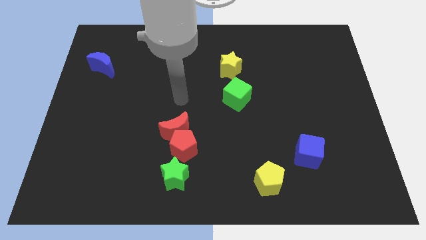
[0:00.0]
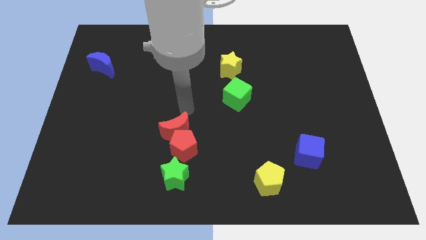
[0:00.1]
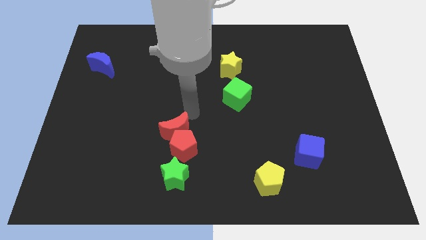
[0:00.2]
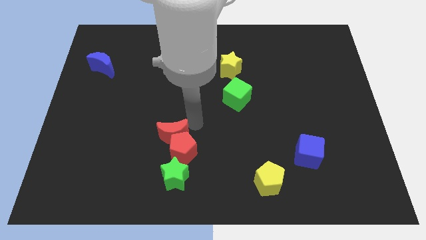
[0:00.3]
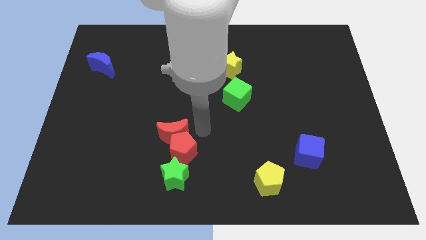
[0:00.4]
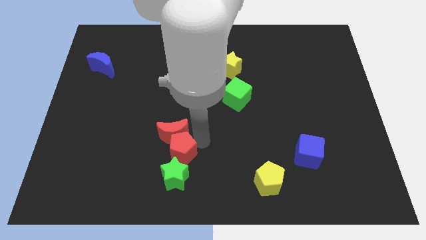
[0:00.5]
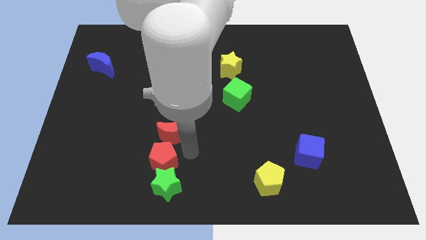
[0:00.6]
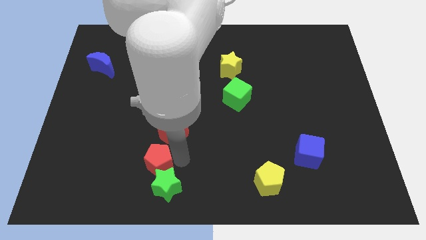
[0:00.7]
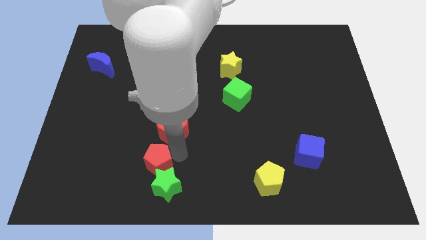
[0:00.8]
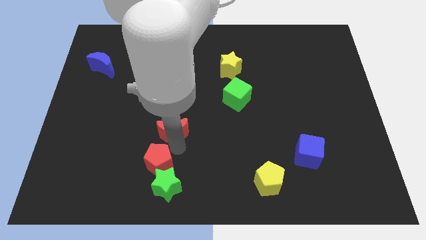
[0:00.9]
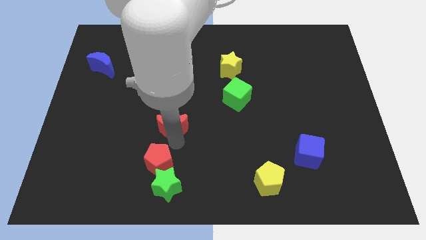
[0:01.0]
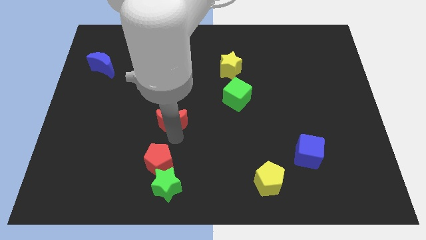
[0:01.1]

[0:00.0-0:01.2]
move the red moon away from the red pentagon

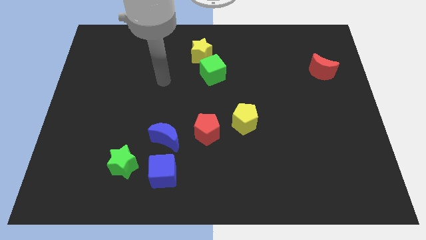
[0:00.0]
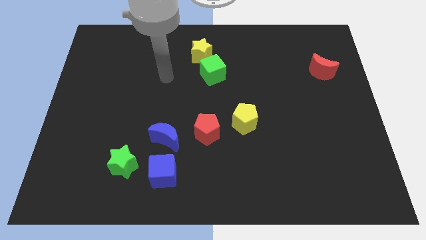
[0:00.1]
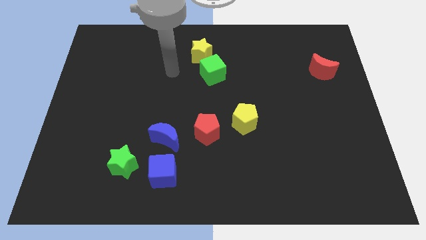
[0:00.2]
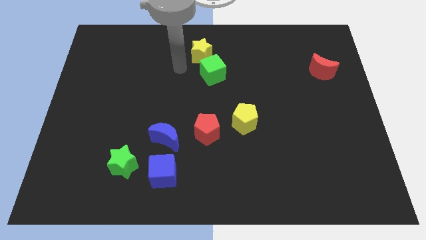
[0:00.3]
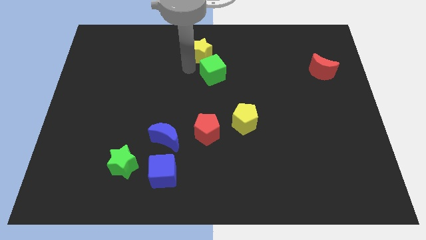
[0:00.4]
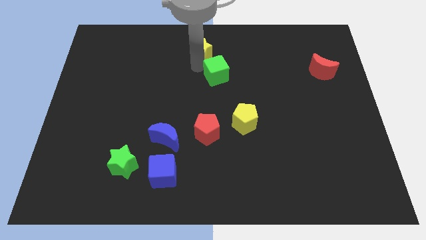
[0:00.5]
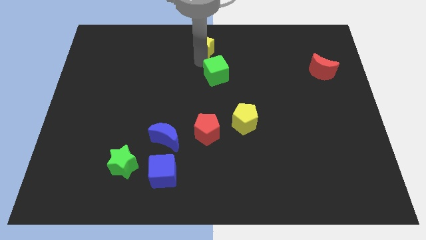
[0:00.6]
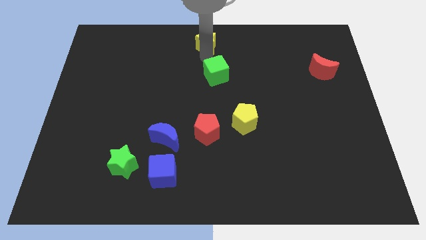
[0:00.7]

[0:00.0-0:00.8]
pull the green cube apart from the yellow star

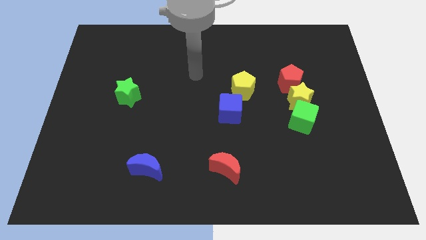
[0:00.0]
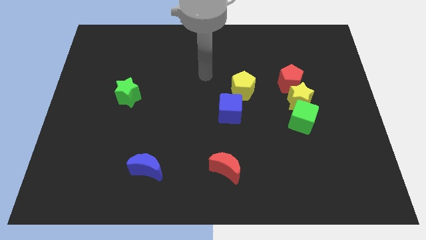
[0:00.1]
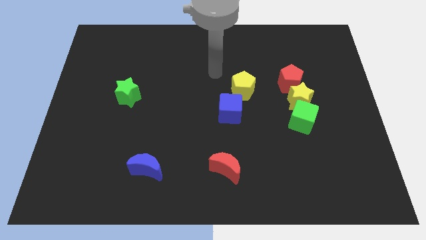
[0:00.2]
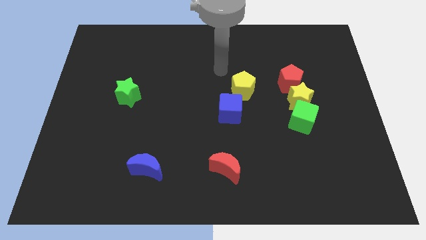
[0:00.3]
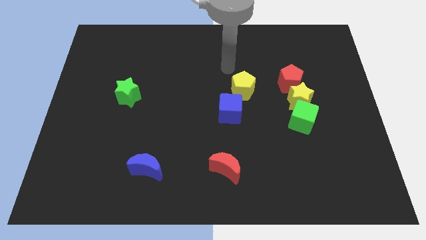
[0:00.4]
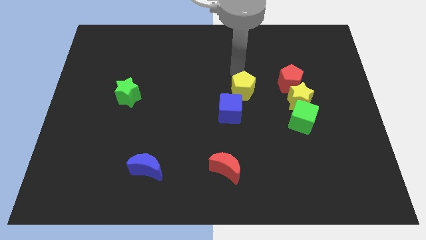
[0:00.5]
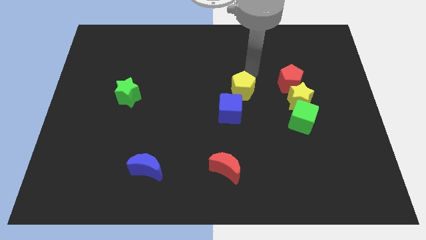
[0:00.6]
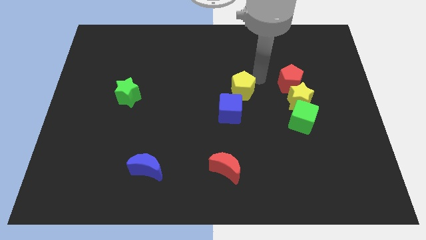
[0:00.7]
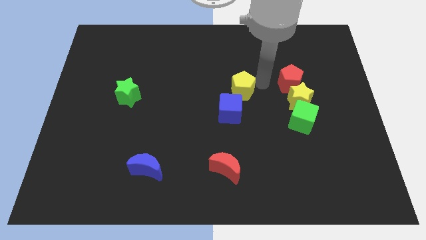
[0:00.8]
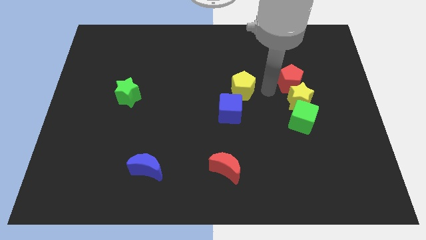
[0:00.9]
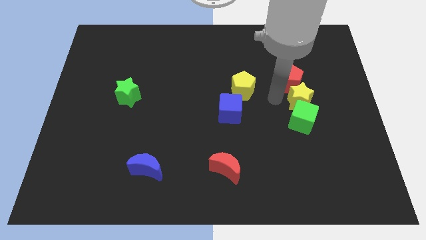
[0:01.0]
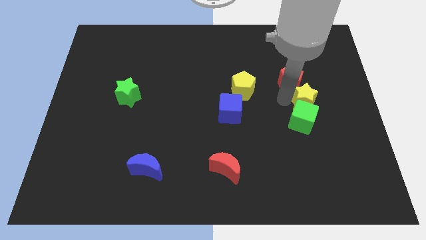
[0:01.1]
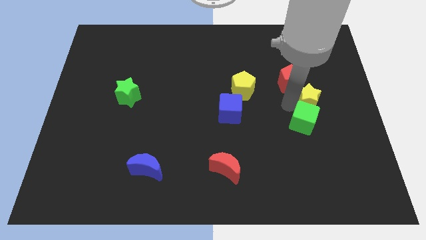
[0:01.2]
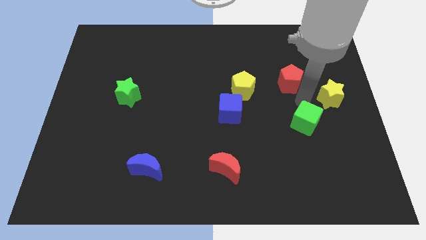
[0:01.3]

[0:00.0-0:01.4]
move the red pentagon away from the yellow star

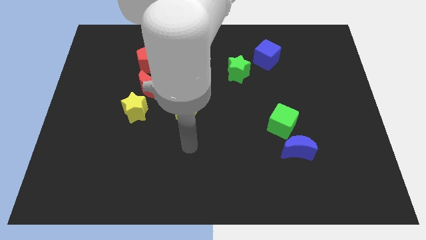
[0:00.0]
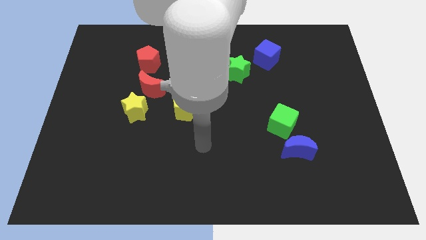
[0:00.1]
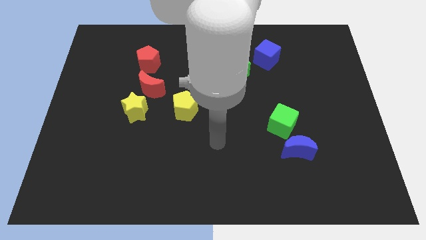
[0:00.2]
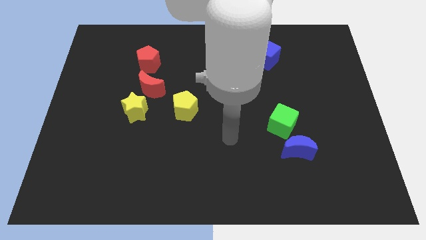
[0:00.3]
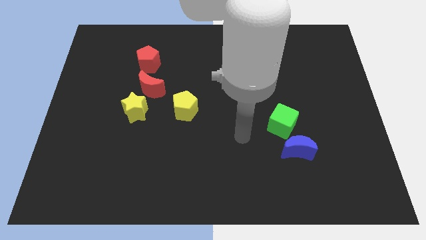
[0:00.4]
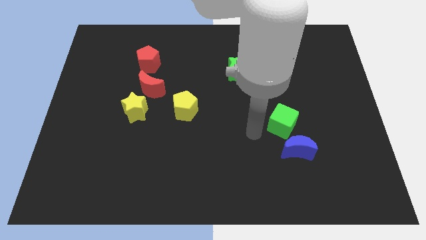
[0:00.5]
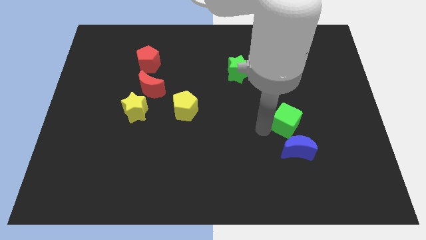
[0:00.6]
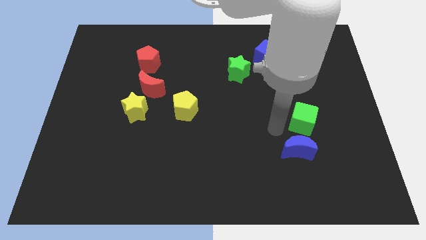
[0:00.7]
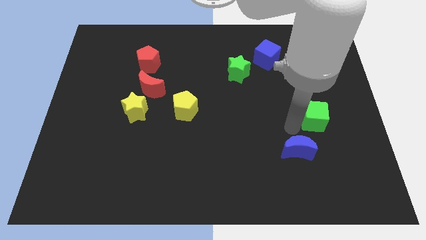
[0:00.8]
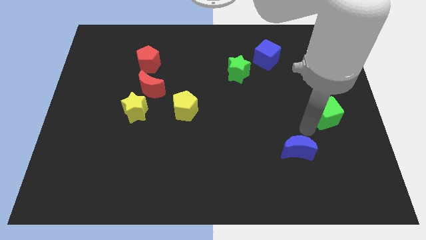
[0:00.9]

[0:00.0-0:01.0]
separate the blue moon from the green cube

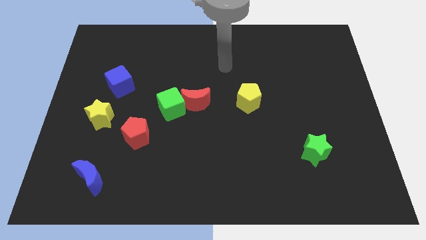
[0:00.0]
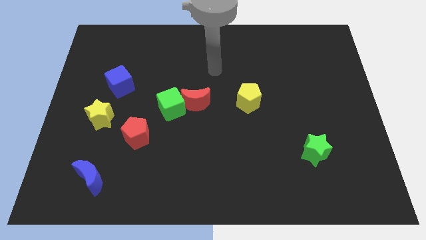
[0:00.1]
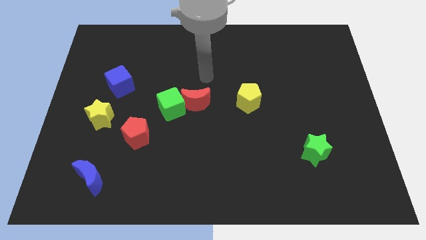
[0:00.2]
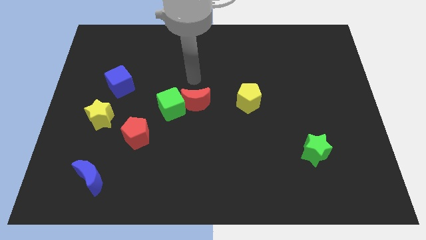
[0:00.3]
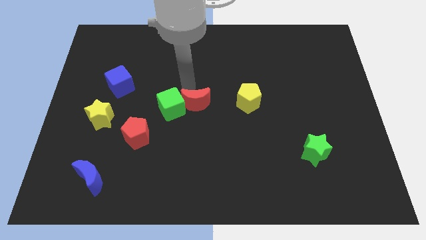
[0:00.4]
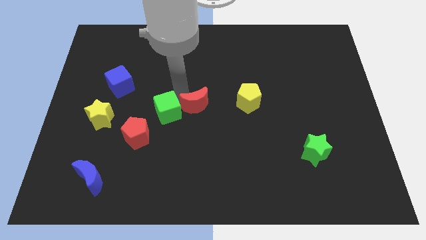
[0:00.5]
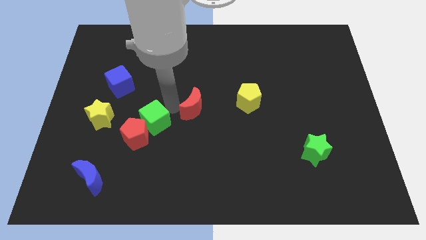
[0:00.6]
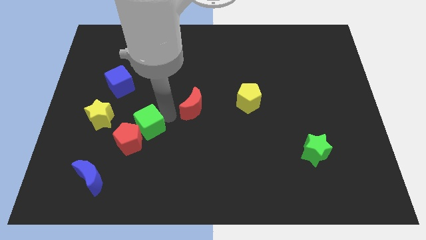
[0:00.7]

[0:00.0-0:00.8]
separate the red moon from the green cube

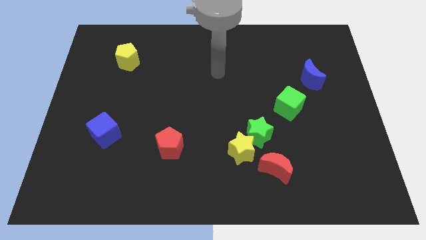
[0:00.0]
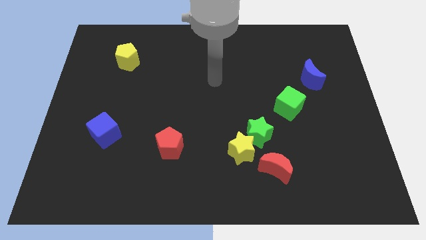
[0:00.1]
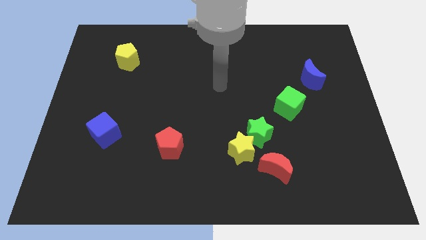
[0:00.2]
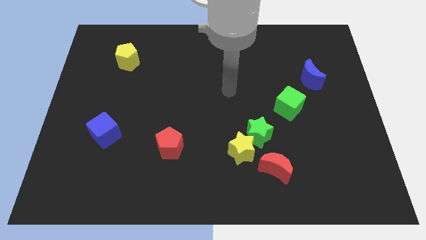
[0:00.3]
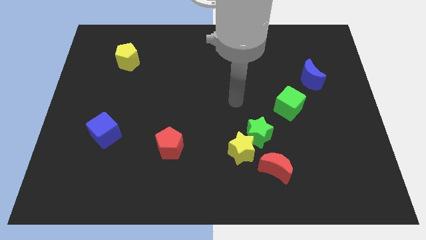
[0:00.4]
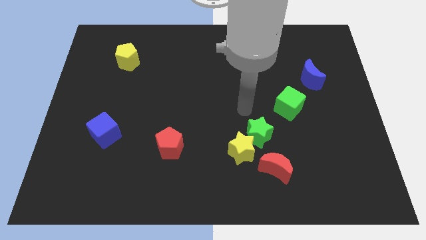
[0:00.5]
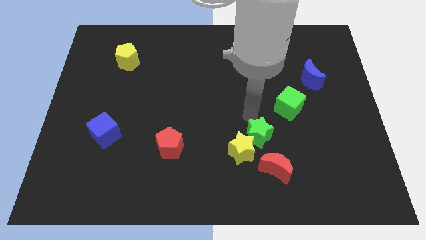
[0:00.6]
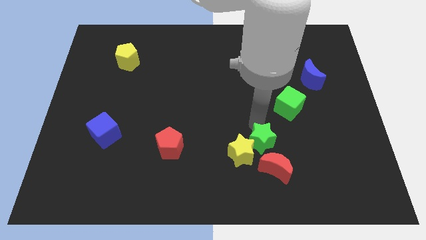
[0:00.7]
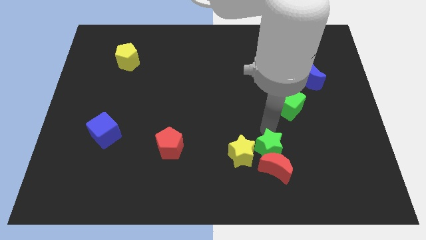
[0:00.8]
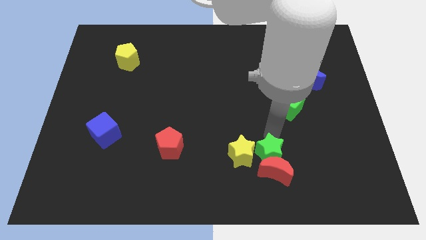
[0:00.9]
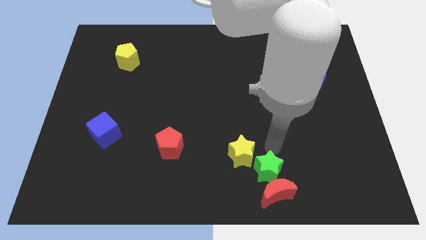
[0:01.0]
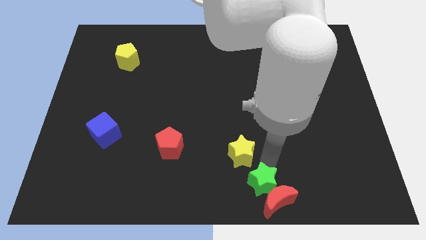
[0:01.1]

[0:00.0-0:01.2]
separate the yellow star from the green star and red moon

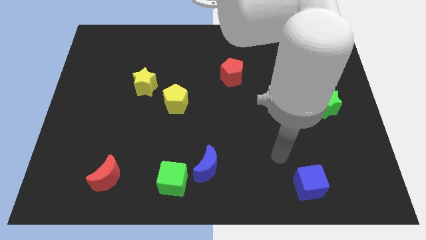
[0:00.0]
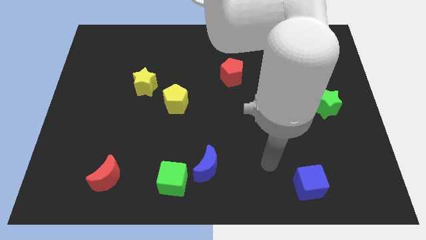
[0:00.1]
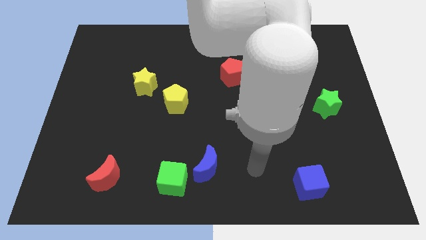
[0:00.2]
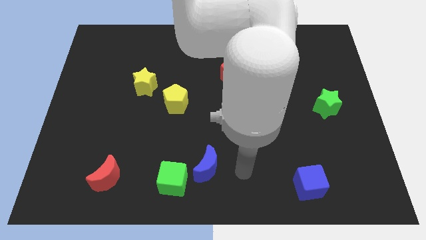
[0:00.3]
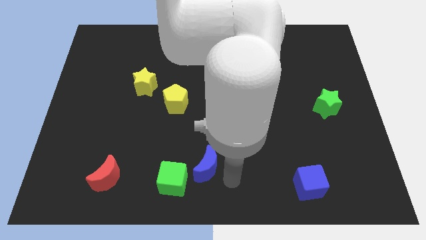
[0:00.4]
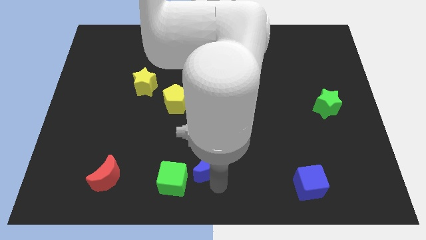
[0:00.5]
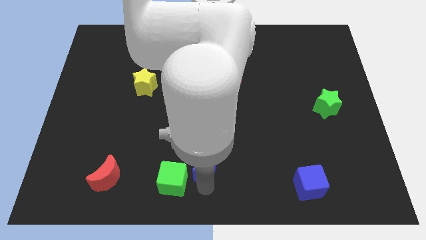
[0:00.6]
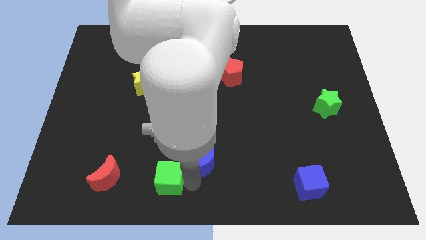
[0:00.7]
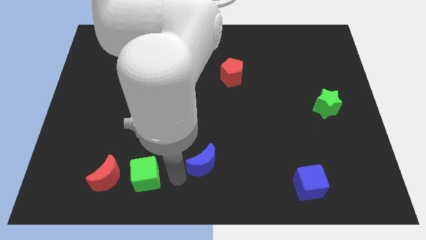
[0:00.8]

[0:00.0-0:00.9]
pull the blue moon apart from the green cube

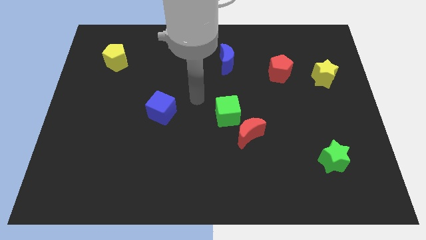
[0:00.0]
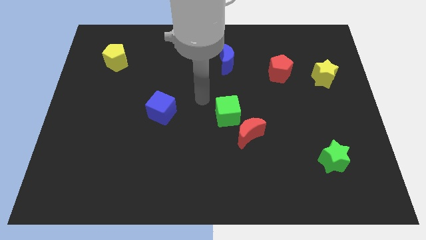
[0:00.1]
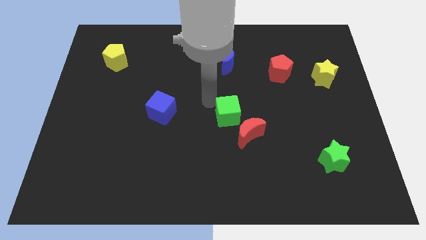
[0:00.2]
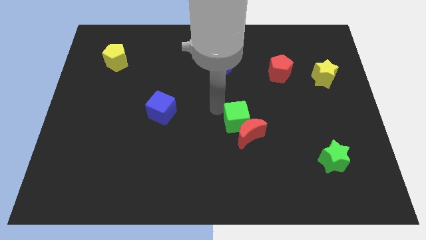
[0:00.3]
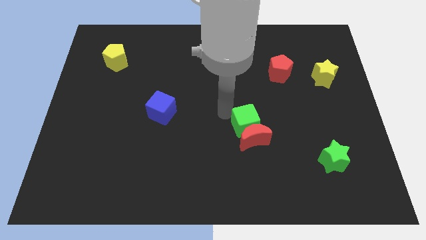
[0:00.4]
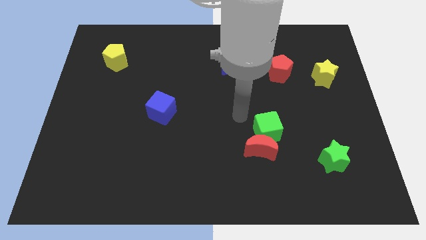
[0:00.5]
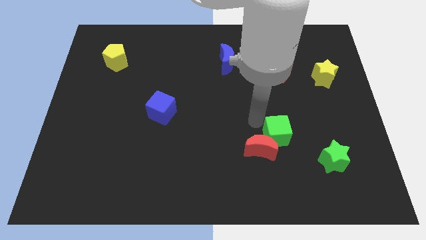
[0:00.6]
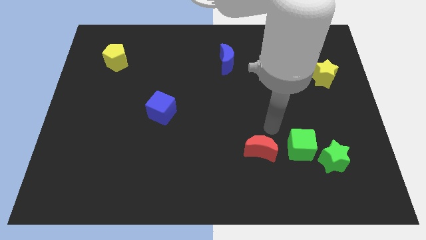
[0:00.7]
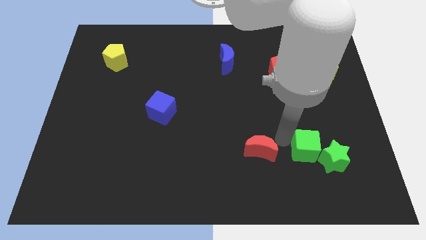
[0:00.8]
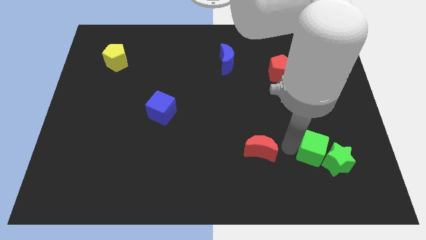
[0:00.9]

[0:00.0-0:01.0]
move the red moon away from the green cube

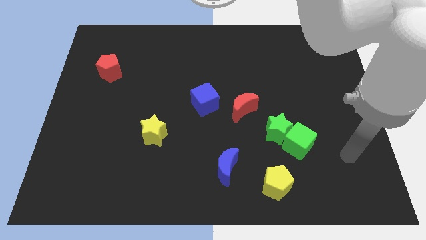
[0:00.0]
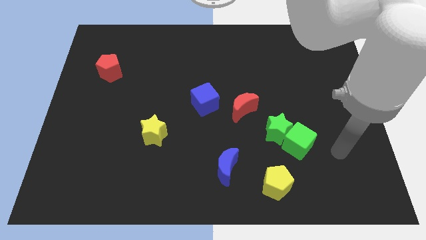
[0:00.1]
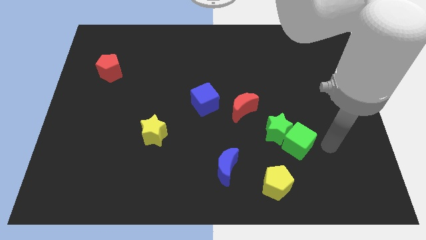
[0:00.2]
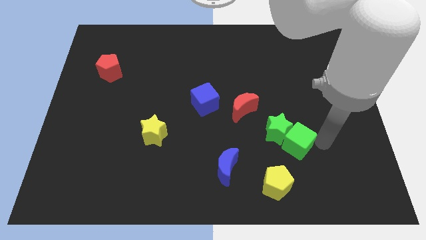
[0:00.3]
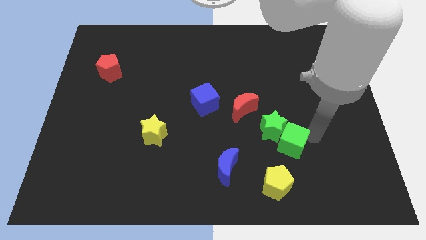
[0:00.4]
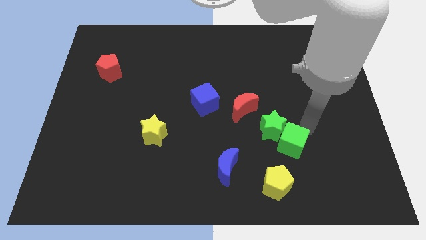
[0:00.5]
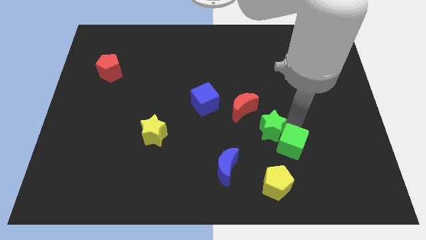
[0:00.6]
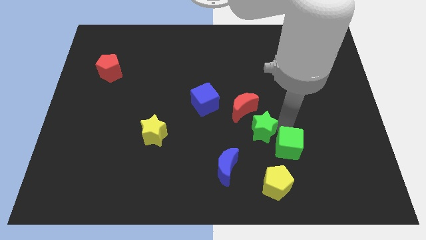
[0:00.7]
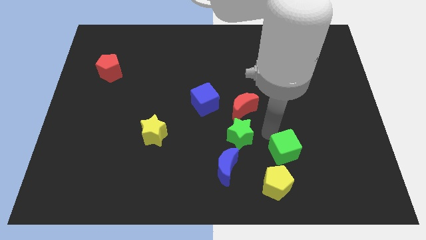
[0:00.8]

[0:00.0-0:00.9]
separate the green cube from the green star

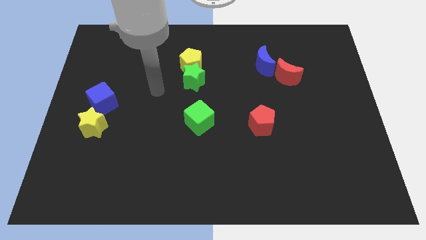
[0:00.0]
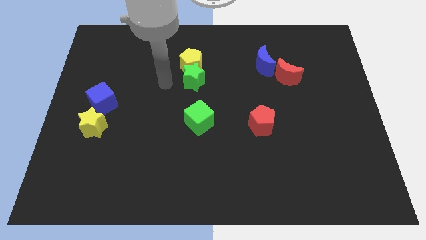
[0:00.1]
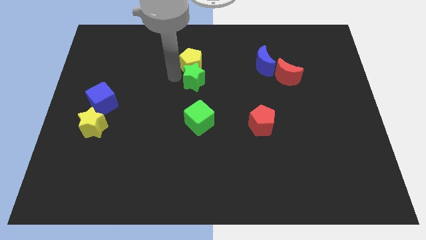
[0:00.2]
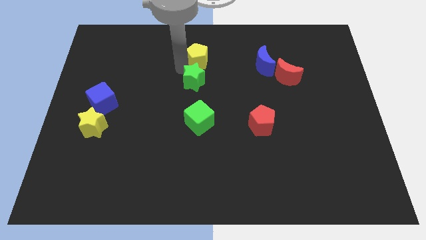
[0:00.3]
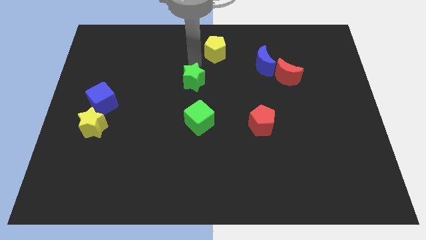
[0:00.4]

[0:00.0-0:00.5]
separate the green star from the yellow pentagon
